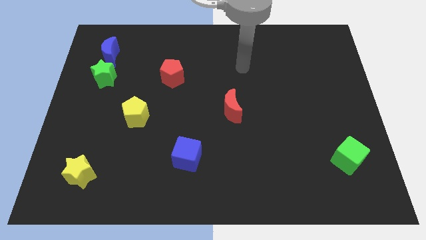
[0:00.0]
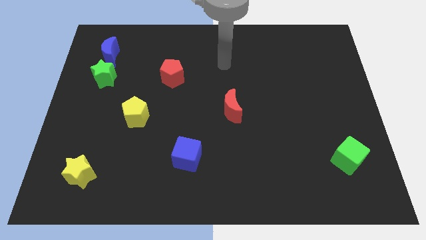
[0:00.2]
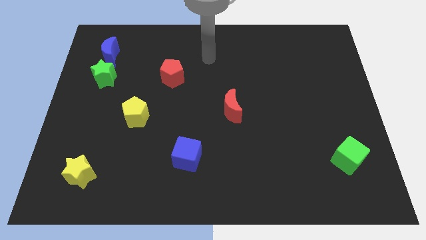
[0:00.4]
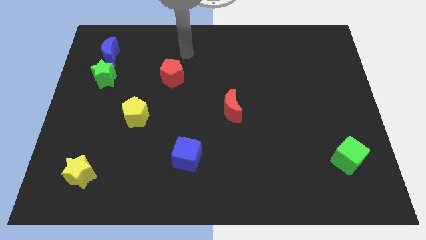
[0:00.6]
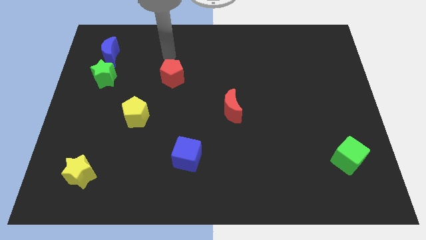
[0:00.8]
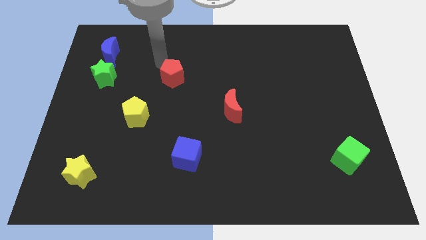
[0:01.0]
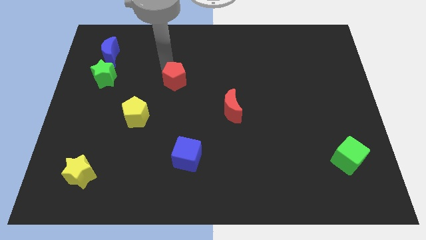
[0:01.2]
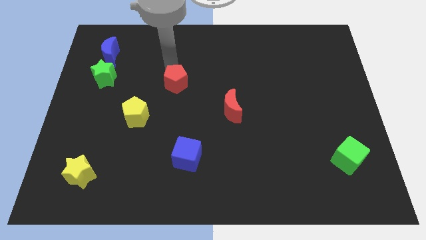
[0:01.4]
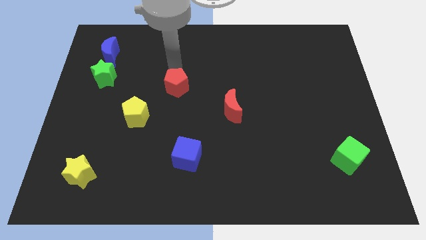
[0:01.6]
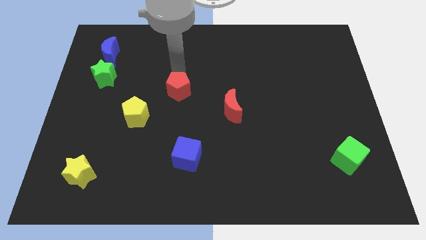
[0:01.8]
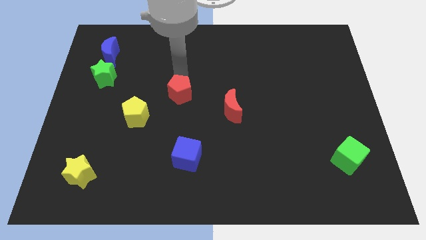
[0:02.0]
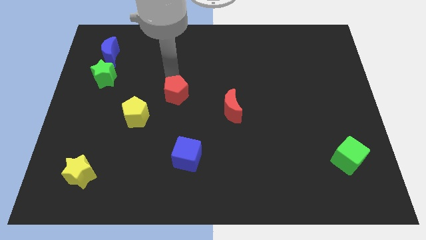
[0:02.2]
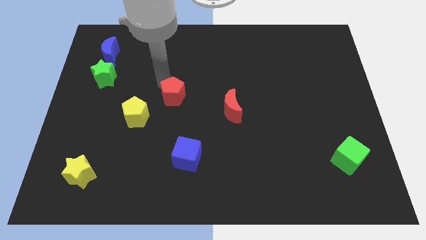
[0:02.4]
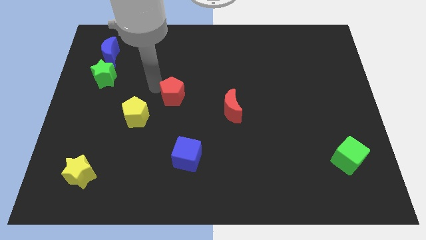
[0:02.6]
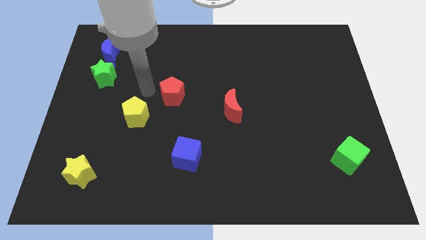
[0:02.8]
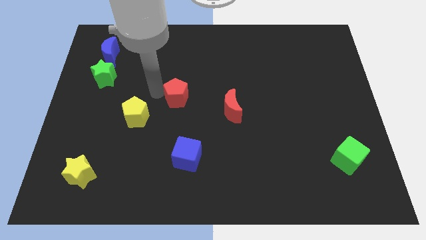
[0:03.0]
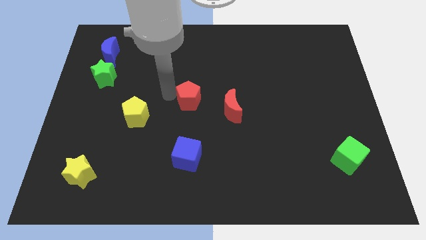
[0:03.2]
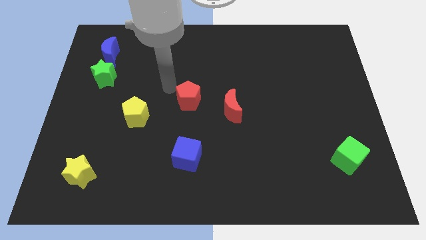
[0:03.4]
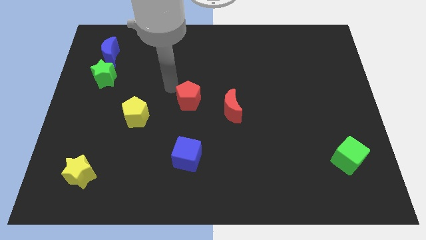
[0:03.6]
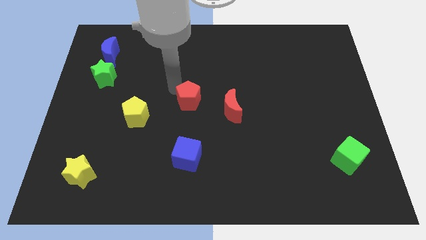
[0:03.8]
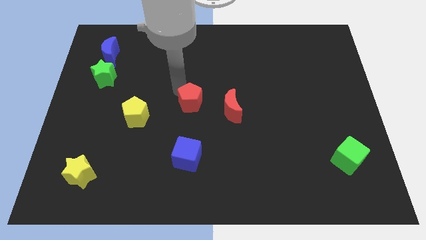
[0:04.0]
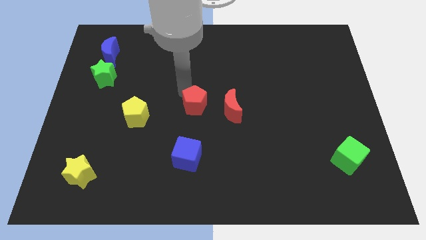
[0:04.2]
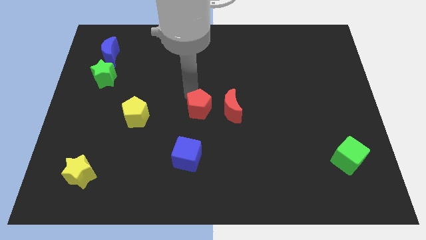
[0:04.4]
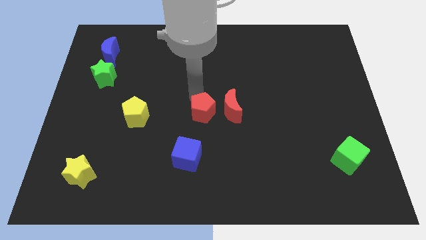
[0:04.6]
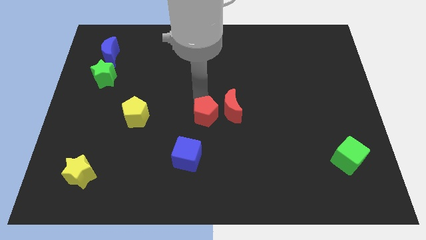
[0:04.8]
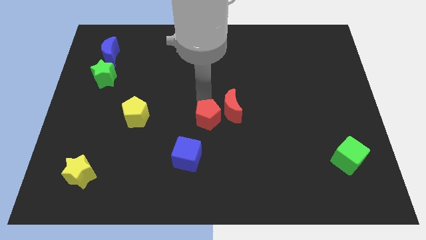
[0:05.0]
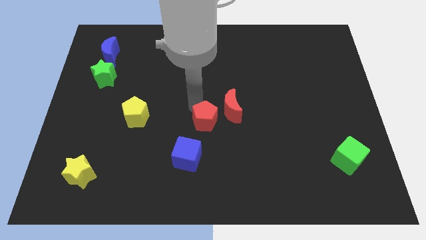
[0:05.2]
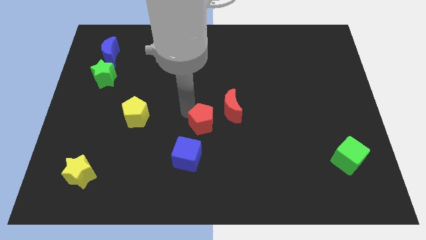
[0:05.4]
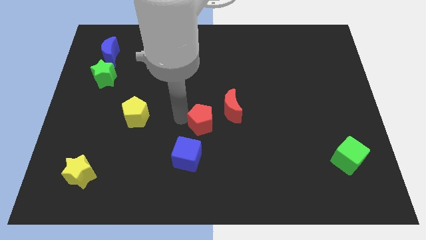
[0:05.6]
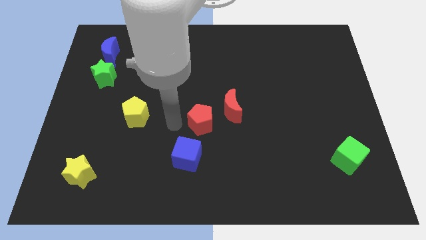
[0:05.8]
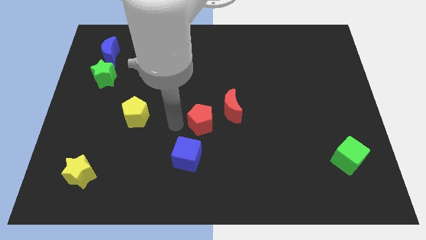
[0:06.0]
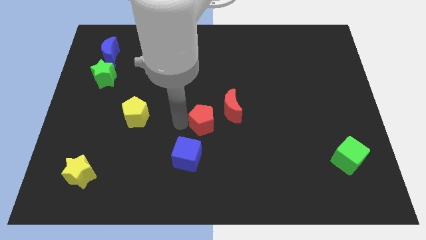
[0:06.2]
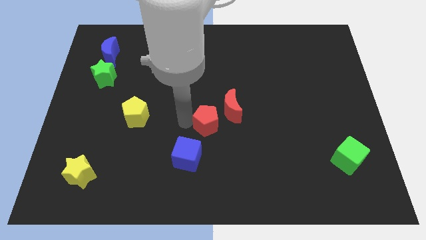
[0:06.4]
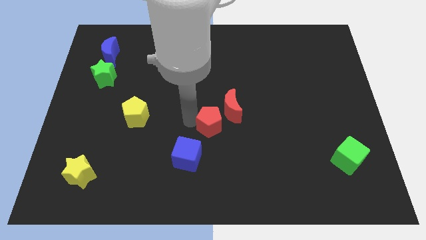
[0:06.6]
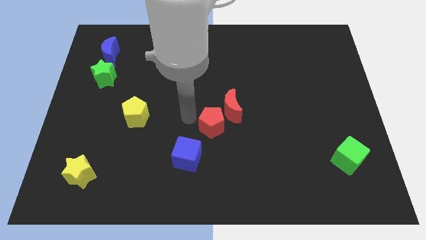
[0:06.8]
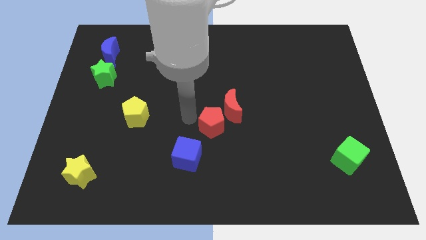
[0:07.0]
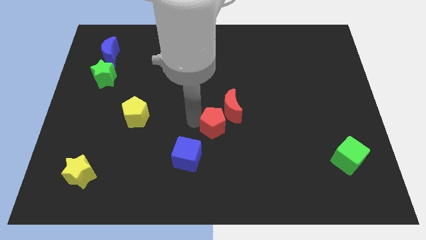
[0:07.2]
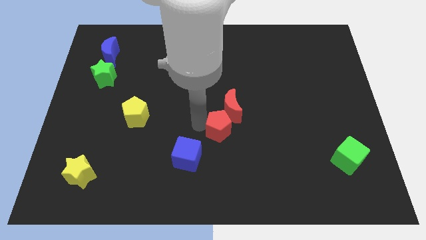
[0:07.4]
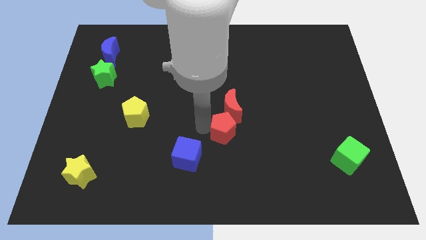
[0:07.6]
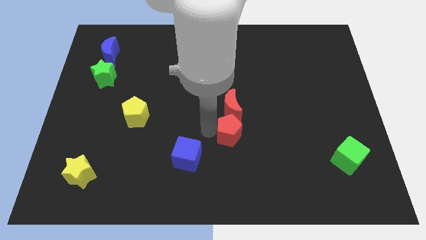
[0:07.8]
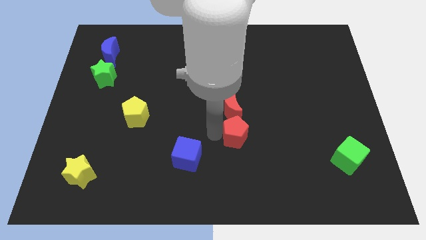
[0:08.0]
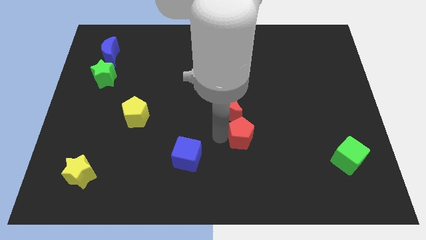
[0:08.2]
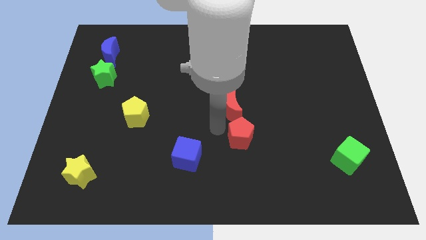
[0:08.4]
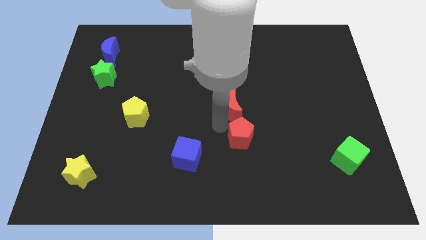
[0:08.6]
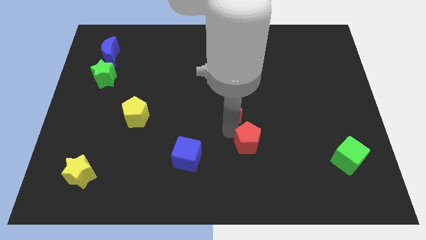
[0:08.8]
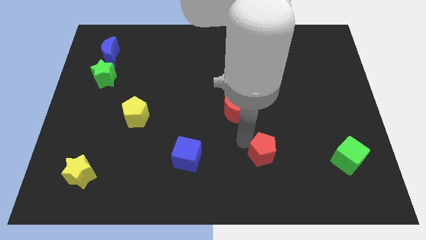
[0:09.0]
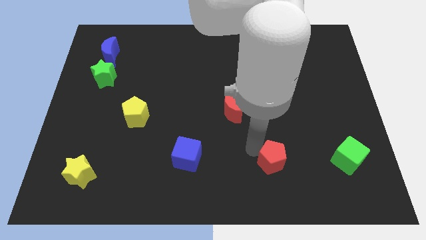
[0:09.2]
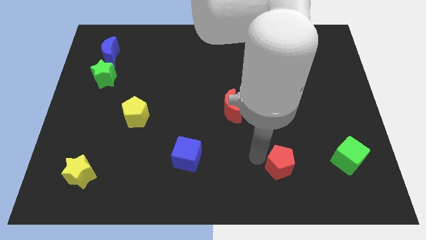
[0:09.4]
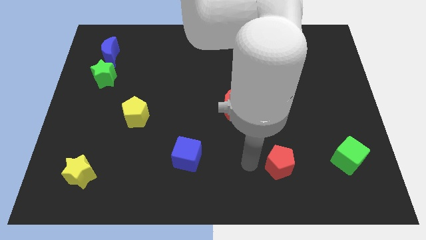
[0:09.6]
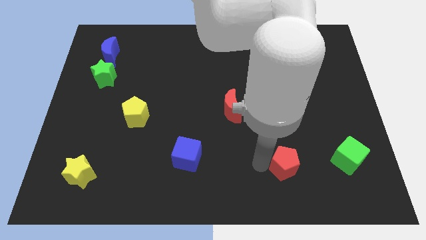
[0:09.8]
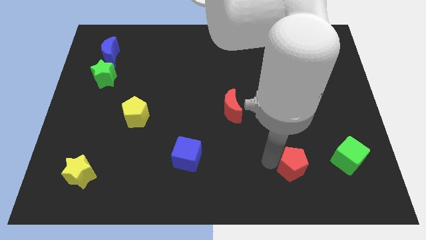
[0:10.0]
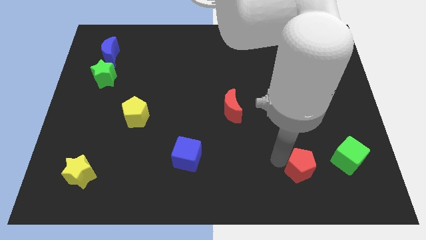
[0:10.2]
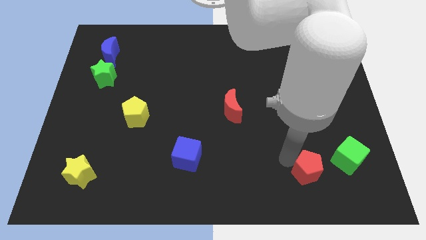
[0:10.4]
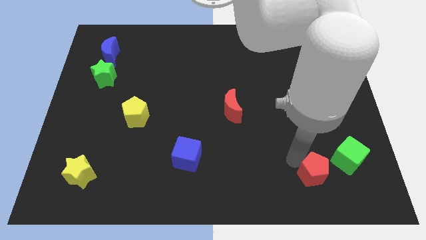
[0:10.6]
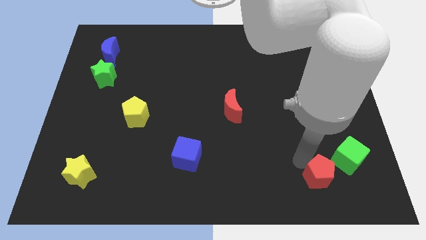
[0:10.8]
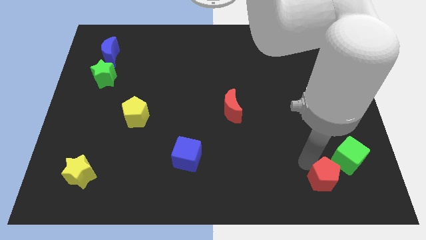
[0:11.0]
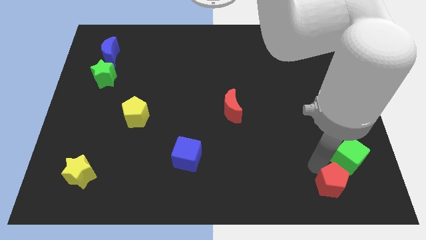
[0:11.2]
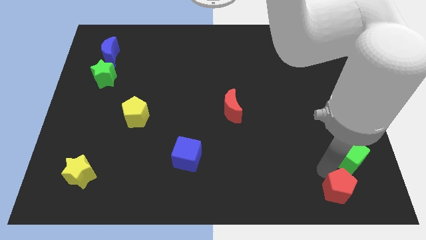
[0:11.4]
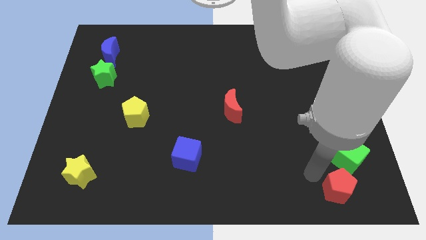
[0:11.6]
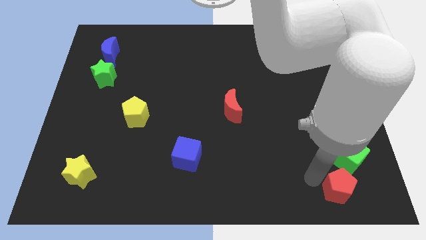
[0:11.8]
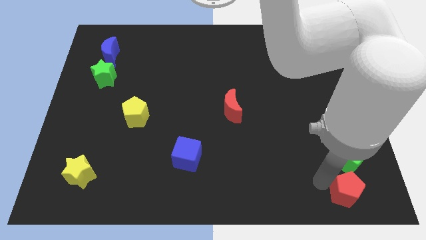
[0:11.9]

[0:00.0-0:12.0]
put the red pentagon to the bottom right of the board
